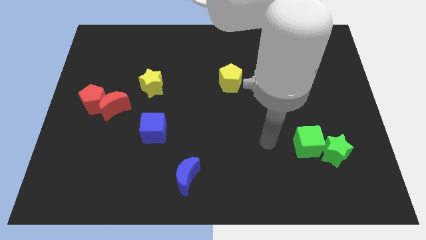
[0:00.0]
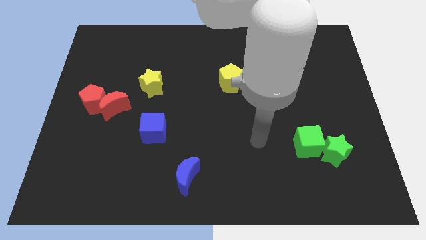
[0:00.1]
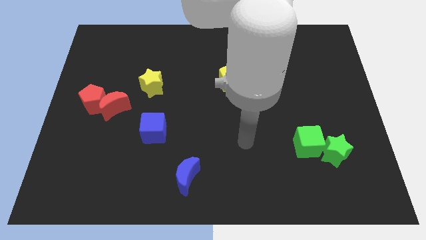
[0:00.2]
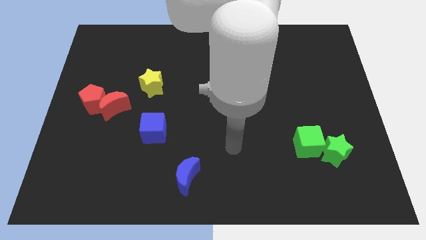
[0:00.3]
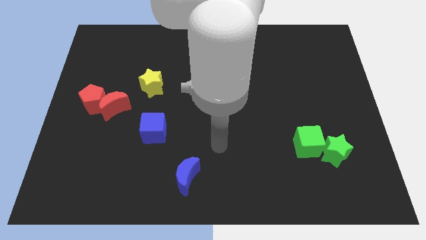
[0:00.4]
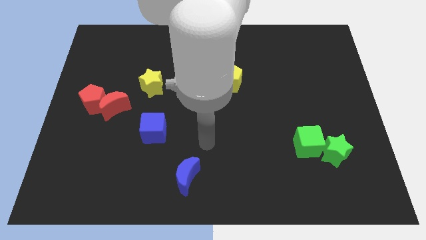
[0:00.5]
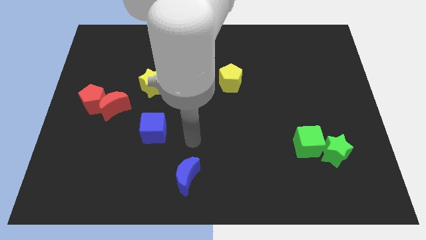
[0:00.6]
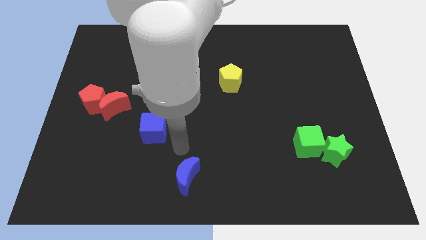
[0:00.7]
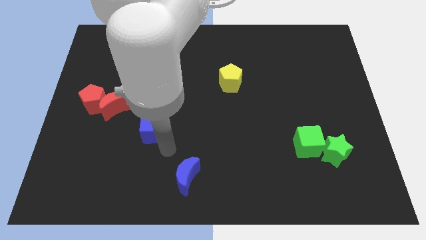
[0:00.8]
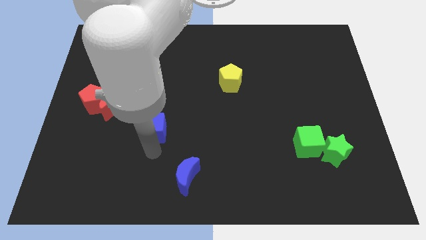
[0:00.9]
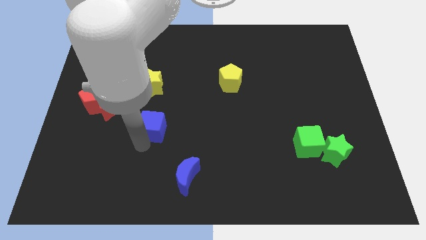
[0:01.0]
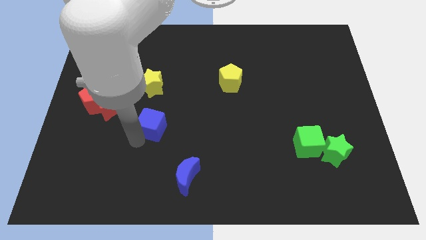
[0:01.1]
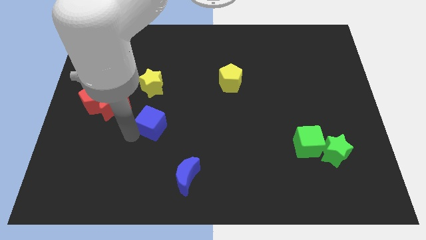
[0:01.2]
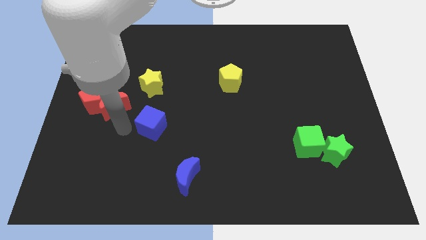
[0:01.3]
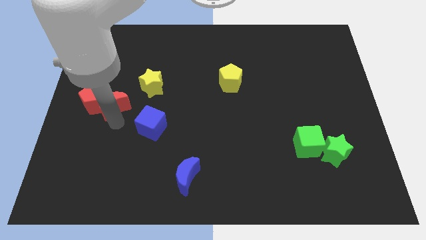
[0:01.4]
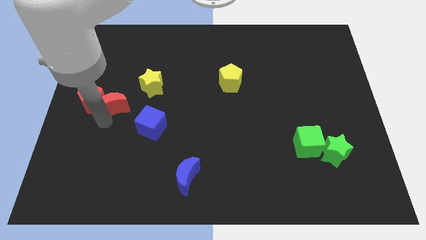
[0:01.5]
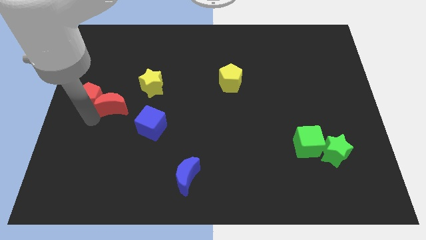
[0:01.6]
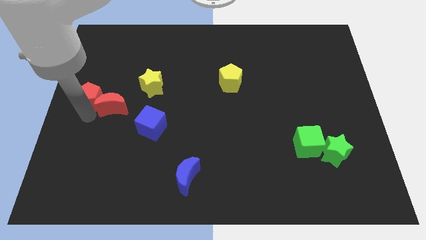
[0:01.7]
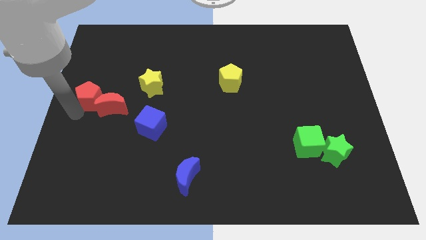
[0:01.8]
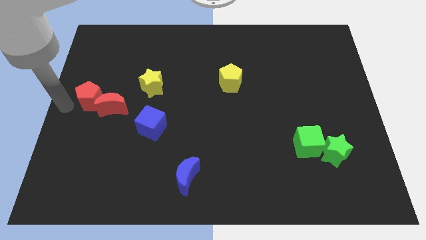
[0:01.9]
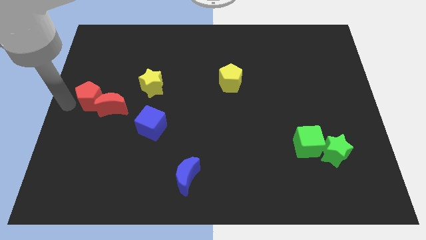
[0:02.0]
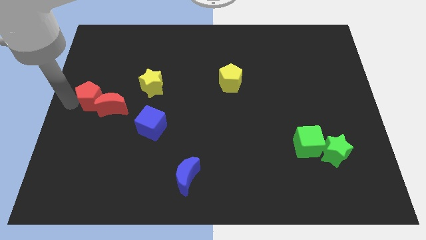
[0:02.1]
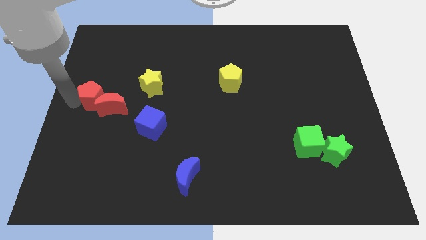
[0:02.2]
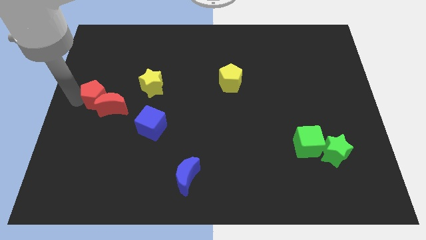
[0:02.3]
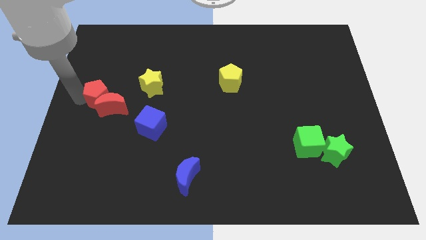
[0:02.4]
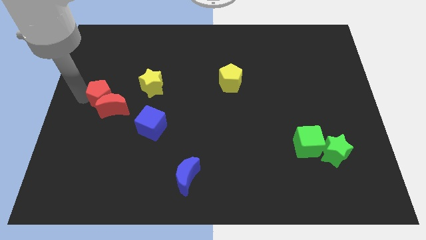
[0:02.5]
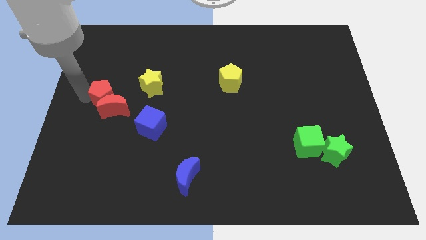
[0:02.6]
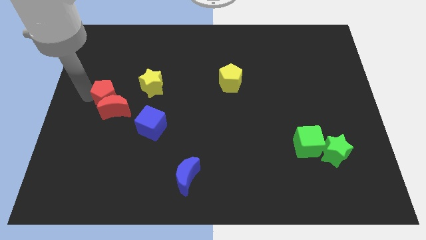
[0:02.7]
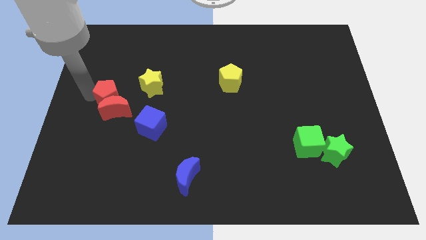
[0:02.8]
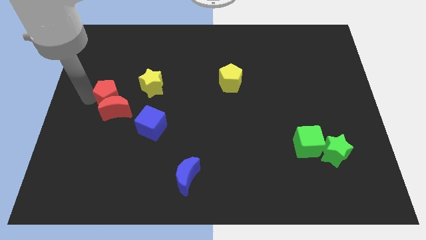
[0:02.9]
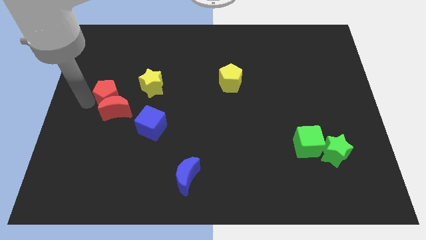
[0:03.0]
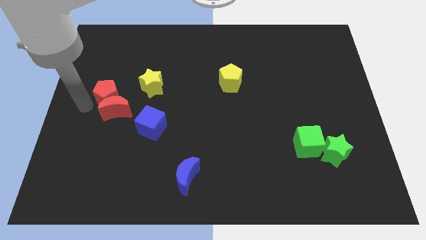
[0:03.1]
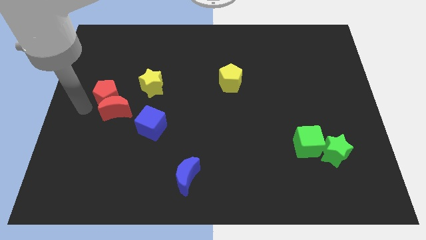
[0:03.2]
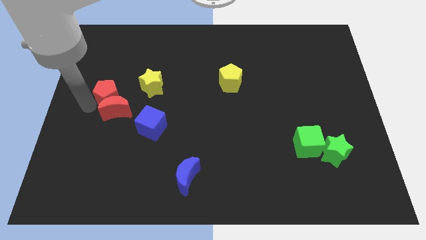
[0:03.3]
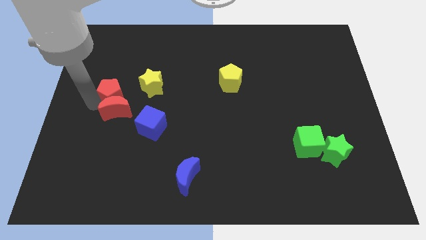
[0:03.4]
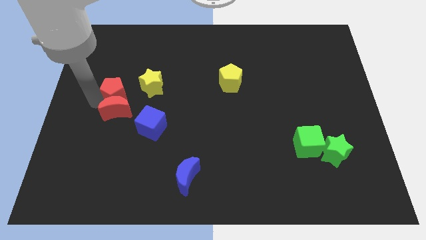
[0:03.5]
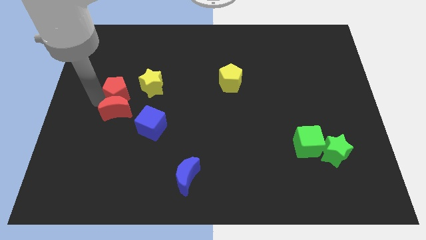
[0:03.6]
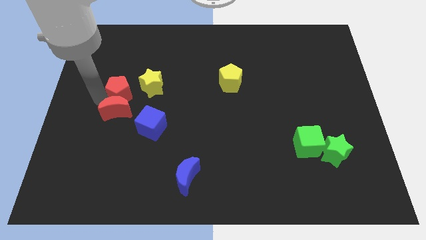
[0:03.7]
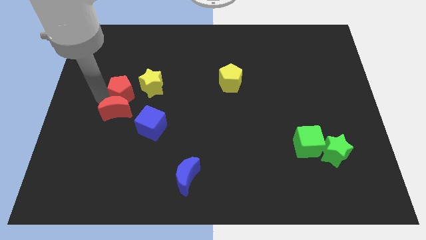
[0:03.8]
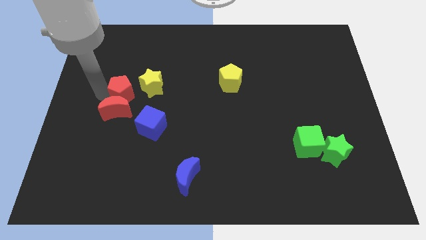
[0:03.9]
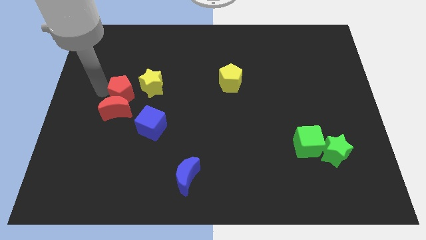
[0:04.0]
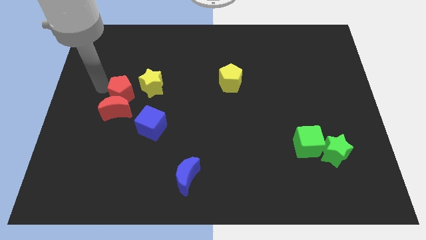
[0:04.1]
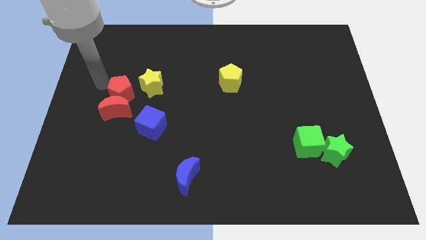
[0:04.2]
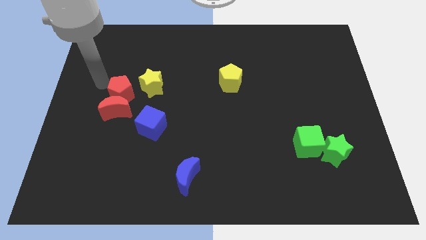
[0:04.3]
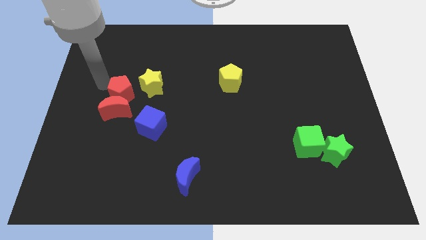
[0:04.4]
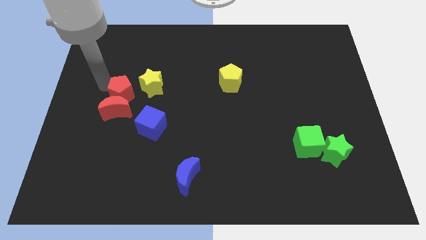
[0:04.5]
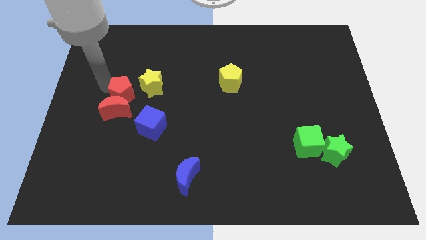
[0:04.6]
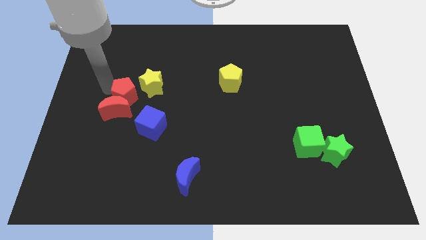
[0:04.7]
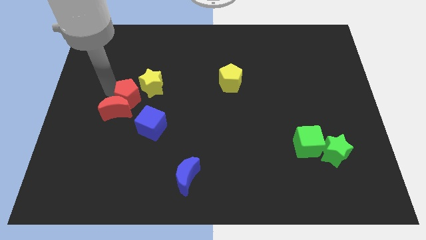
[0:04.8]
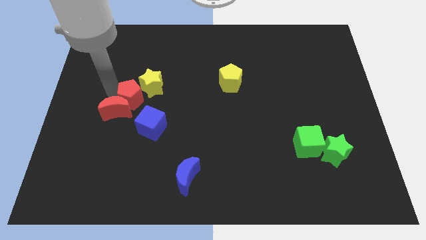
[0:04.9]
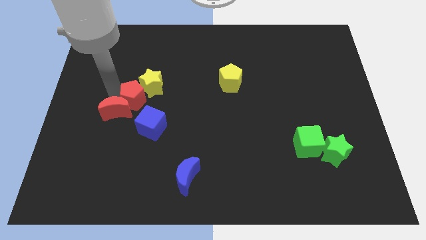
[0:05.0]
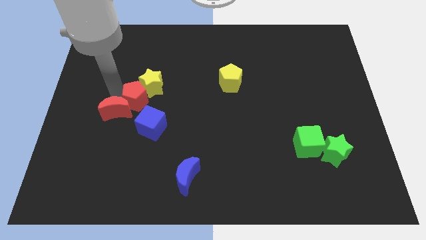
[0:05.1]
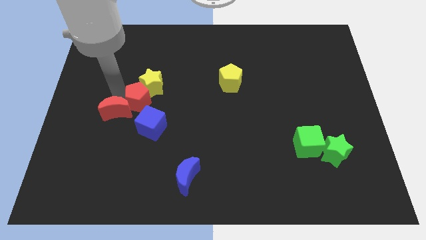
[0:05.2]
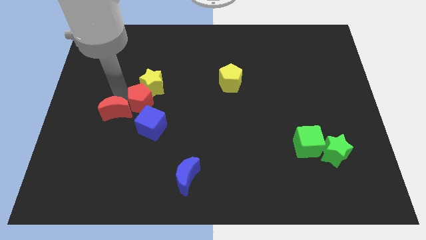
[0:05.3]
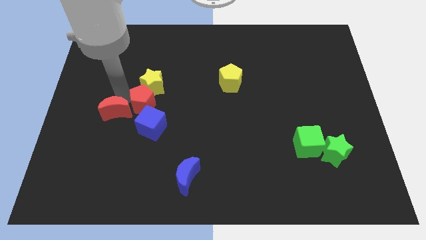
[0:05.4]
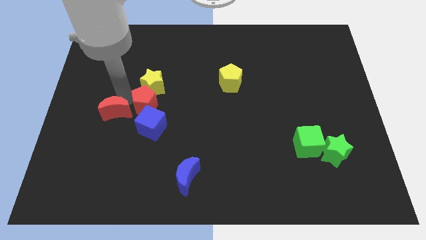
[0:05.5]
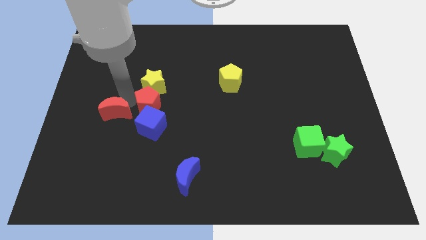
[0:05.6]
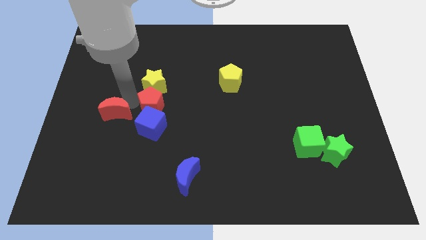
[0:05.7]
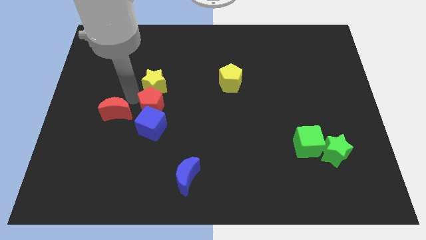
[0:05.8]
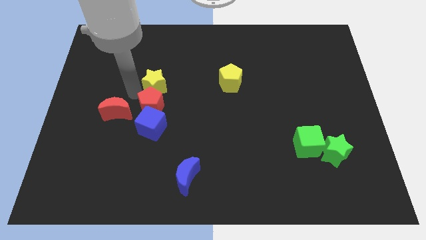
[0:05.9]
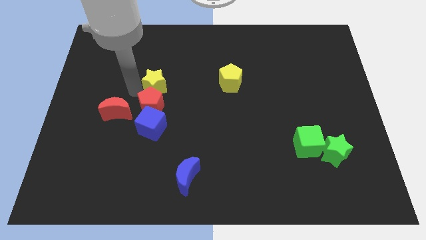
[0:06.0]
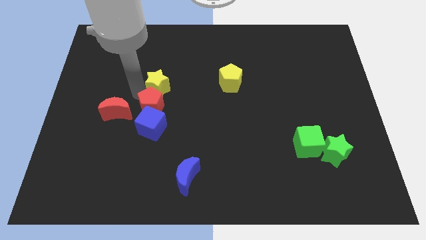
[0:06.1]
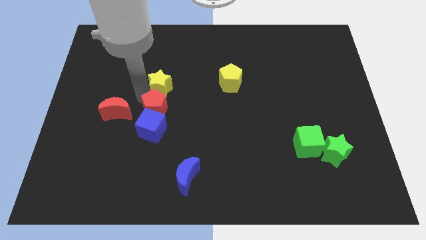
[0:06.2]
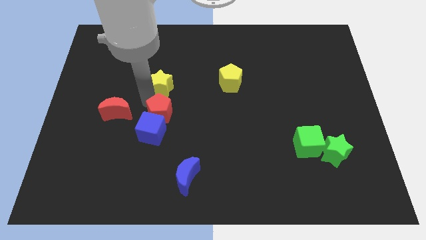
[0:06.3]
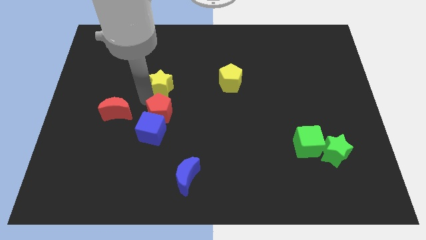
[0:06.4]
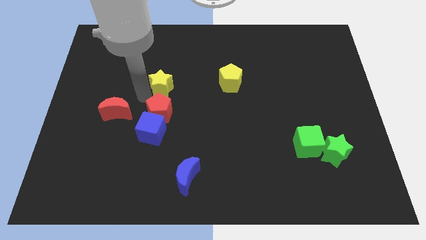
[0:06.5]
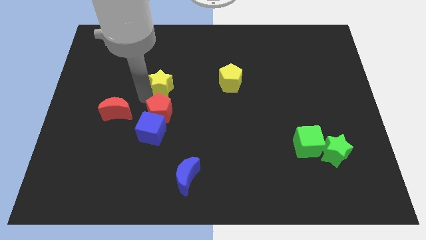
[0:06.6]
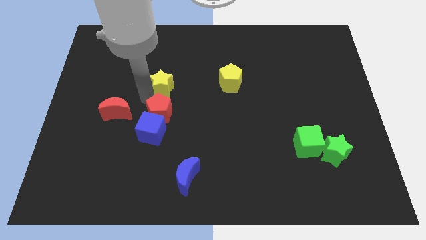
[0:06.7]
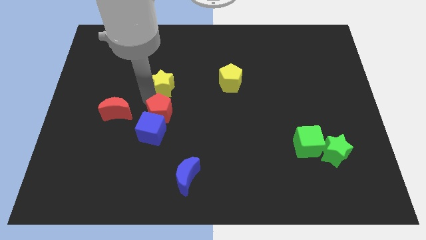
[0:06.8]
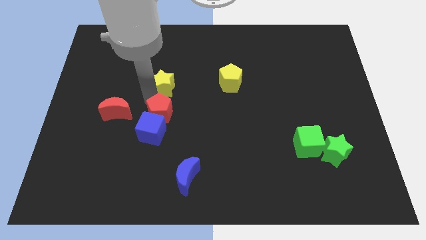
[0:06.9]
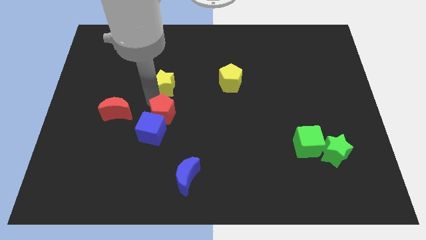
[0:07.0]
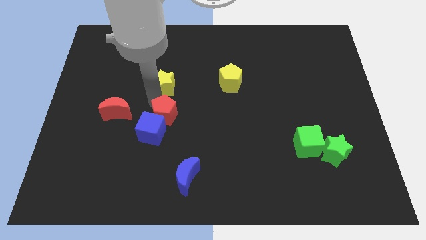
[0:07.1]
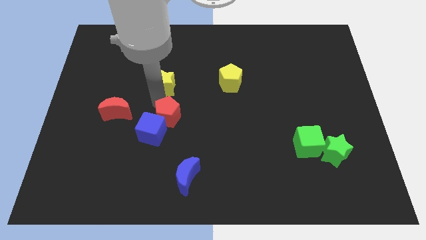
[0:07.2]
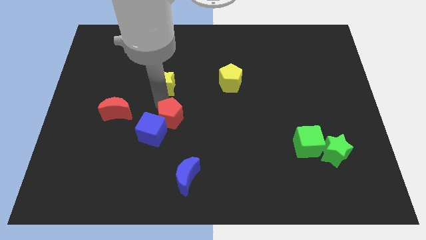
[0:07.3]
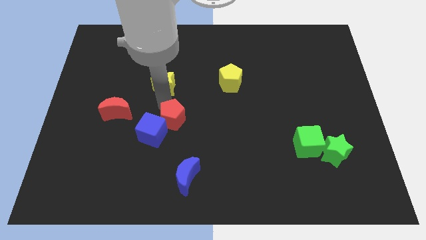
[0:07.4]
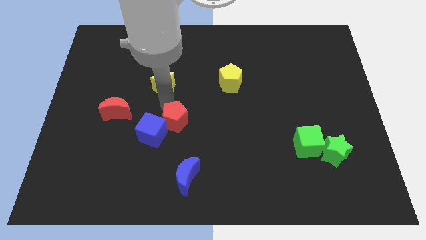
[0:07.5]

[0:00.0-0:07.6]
push the red pentagon to the top side of the blue moon
